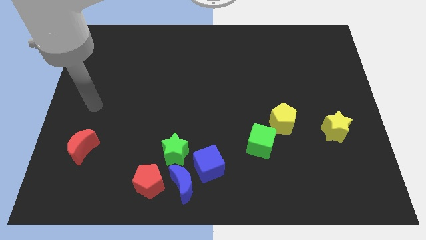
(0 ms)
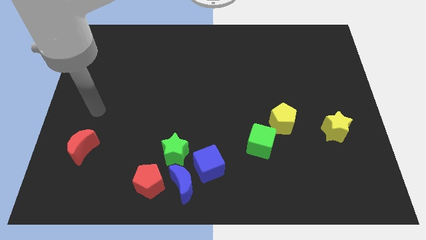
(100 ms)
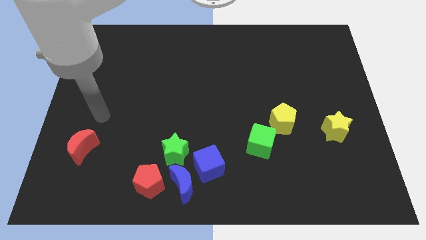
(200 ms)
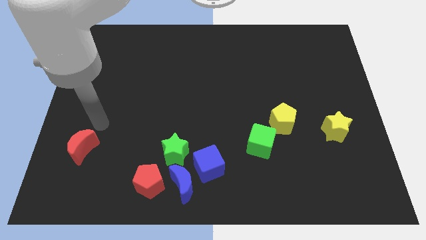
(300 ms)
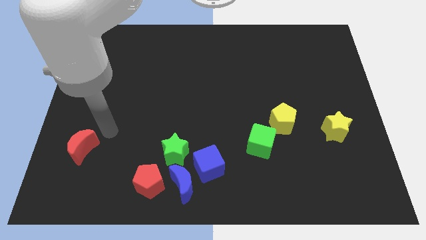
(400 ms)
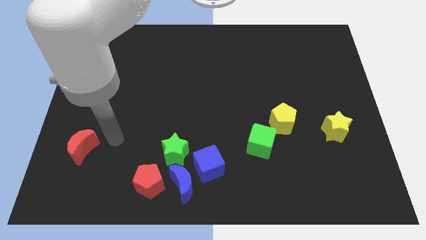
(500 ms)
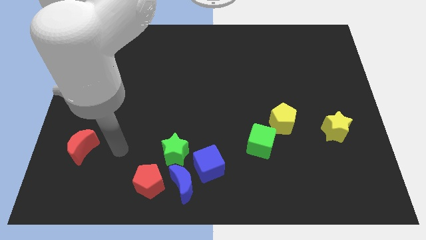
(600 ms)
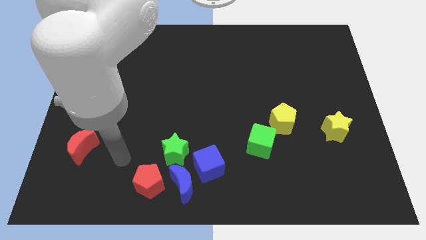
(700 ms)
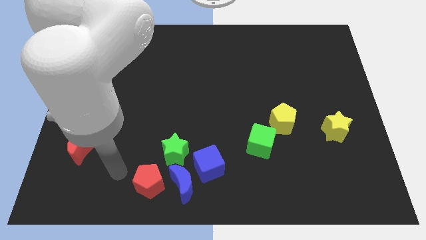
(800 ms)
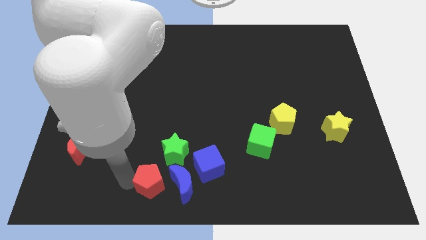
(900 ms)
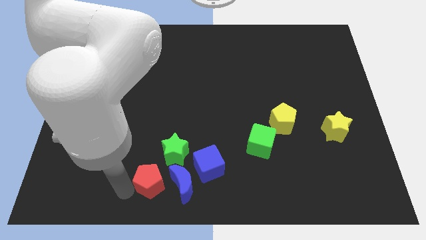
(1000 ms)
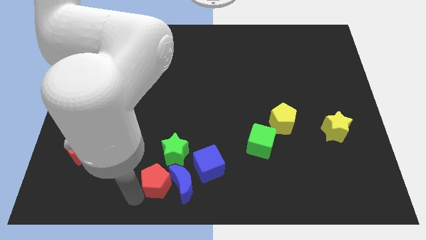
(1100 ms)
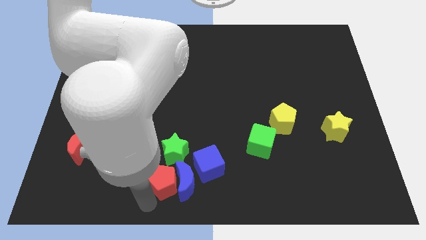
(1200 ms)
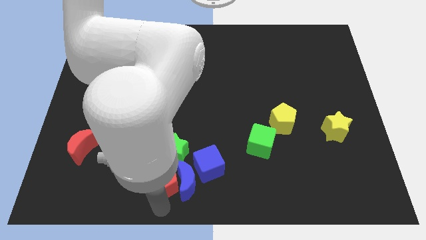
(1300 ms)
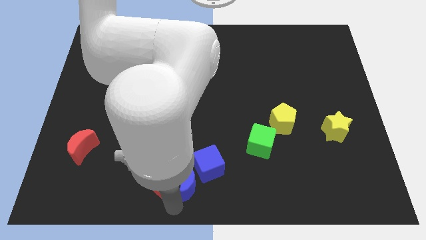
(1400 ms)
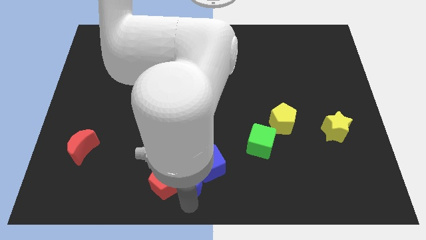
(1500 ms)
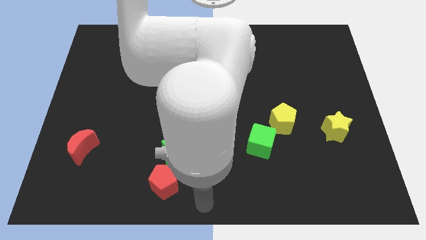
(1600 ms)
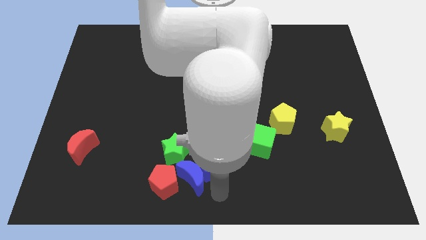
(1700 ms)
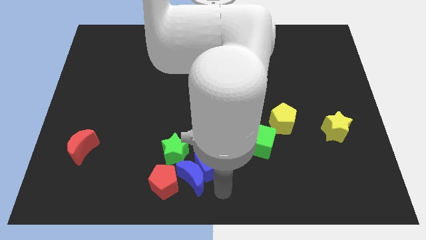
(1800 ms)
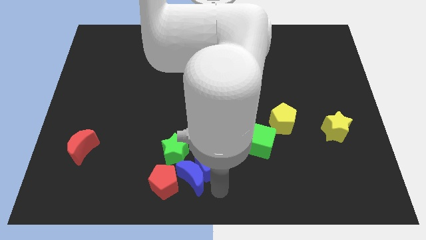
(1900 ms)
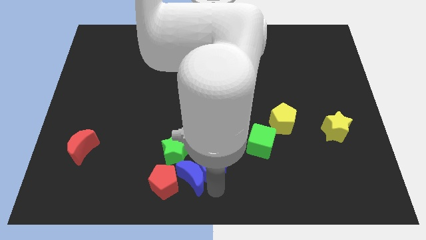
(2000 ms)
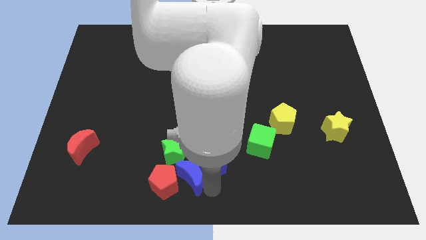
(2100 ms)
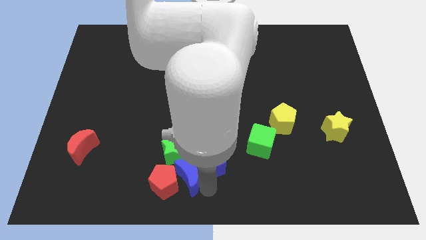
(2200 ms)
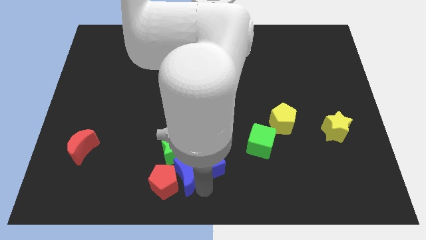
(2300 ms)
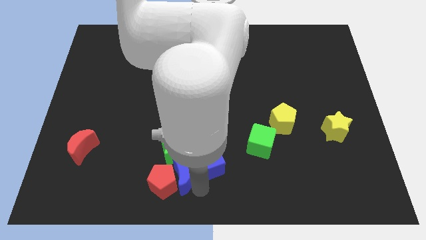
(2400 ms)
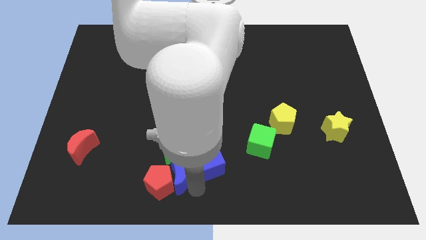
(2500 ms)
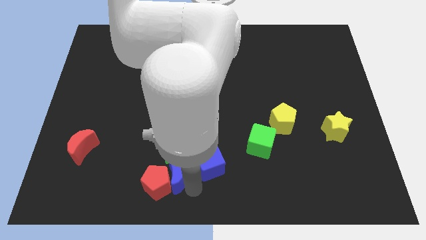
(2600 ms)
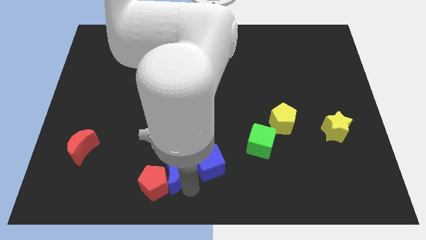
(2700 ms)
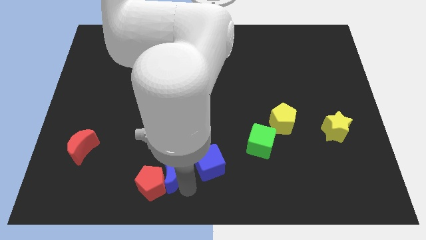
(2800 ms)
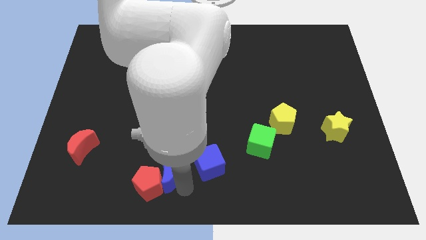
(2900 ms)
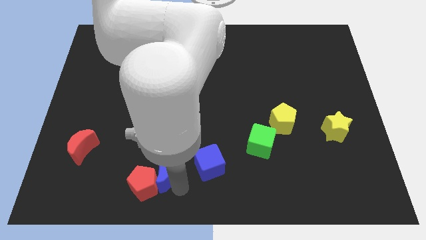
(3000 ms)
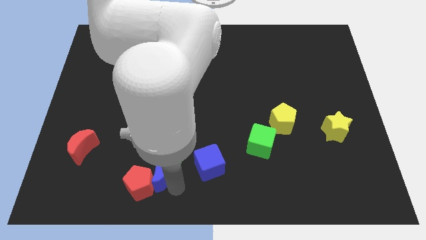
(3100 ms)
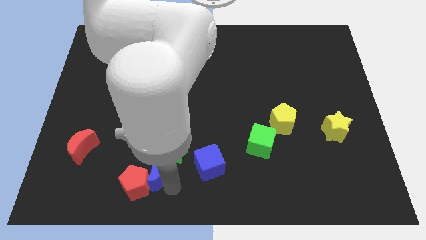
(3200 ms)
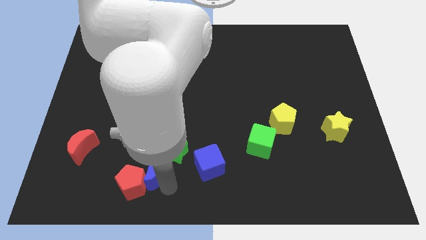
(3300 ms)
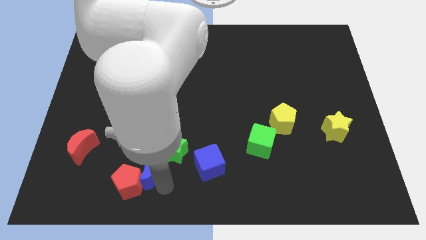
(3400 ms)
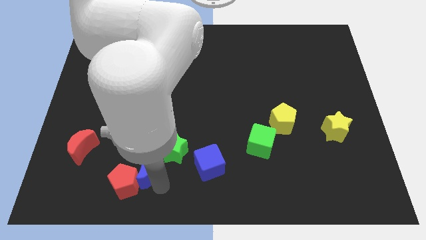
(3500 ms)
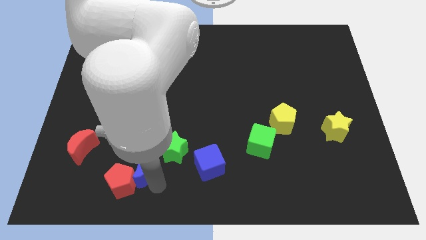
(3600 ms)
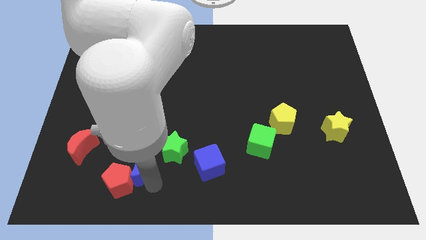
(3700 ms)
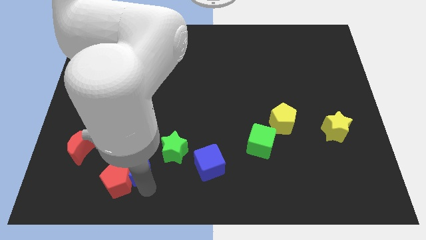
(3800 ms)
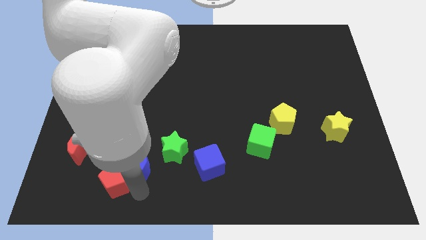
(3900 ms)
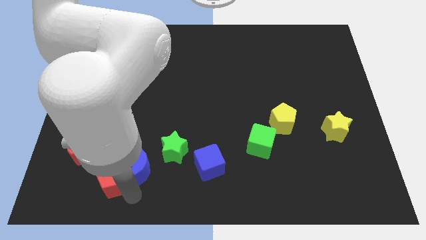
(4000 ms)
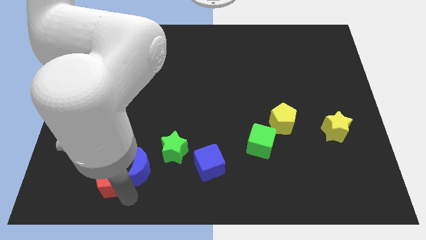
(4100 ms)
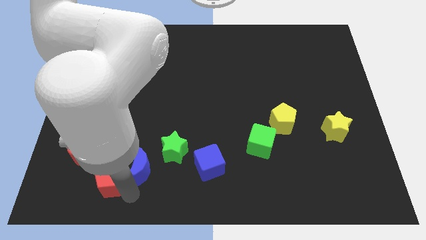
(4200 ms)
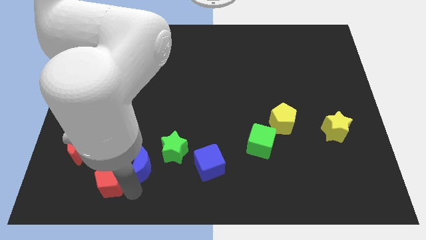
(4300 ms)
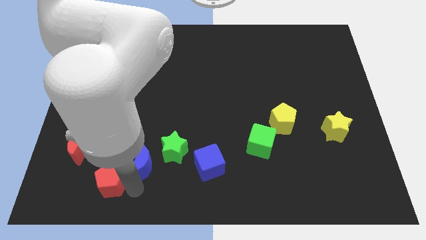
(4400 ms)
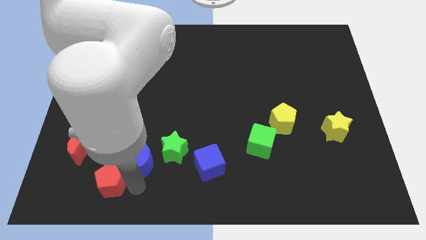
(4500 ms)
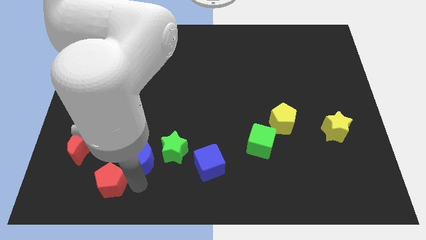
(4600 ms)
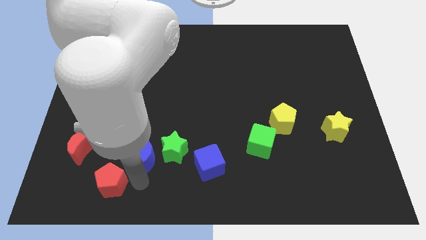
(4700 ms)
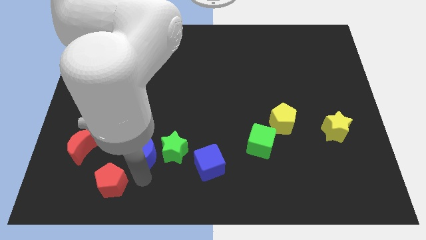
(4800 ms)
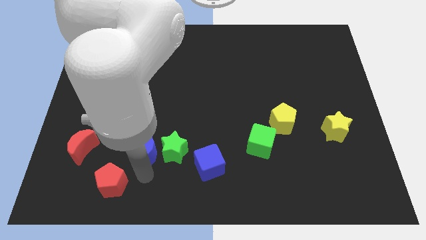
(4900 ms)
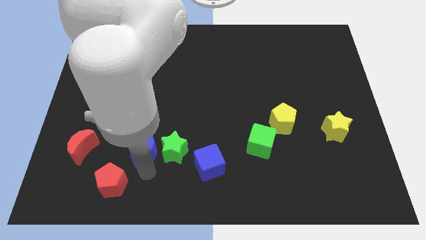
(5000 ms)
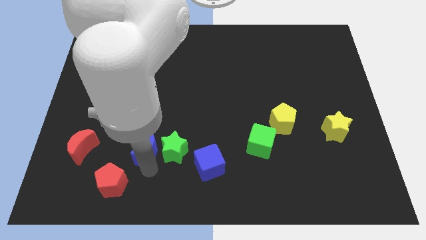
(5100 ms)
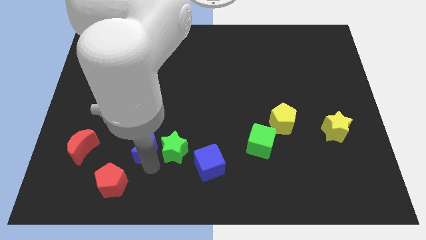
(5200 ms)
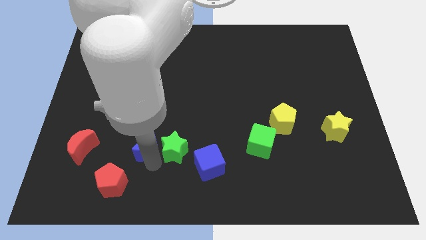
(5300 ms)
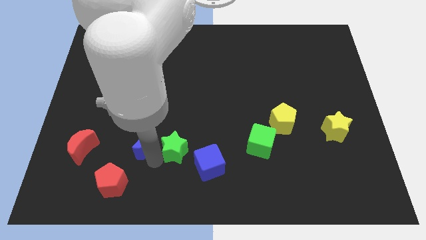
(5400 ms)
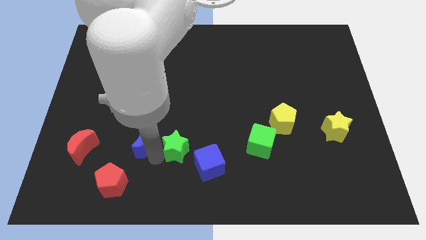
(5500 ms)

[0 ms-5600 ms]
push the blue moon a bit upwards

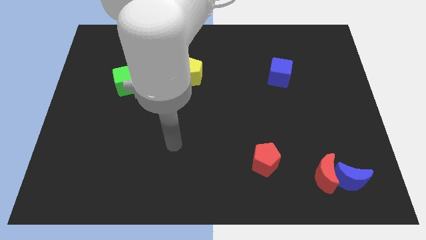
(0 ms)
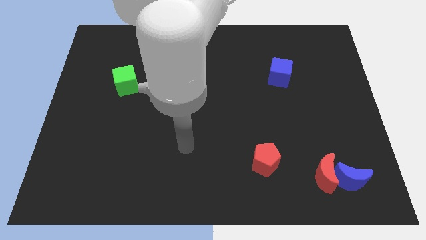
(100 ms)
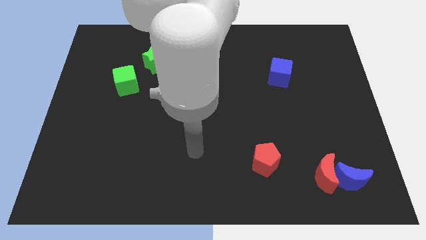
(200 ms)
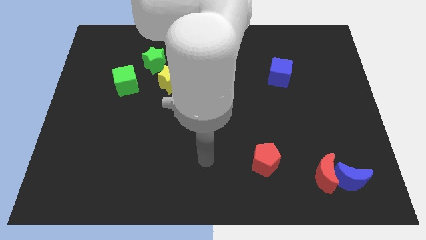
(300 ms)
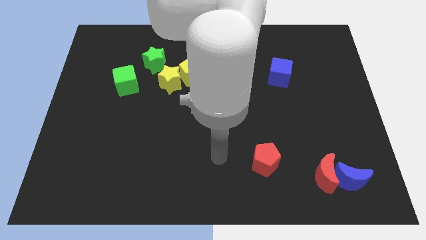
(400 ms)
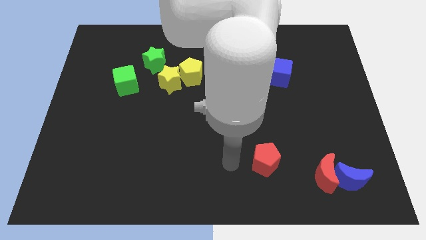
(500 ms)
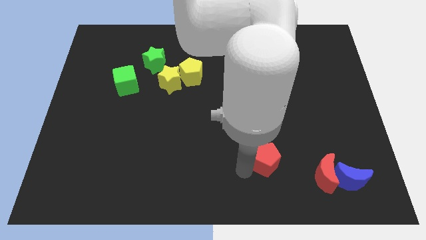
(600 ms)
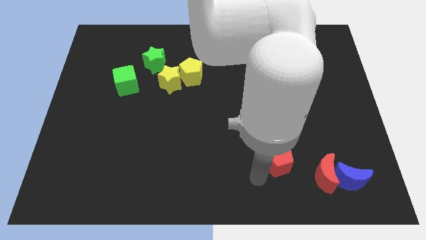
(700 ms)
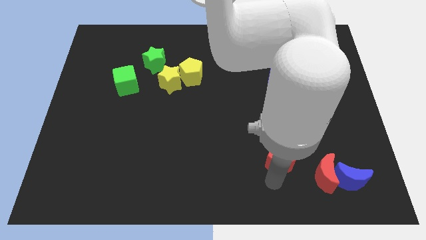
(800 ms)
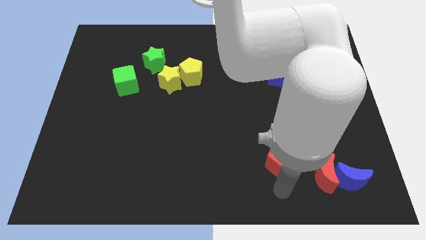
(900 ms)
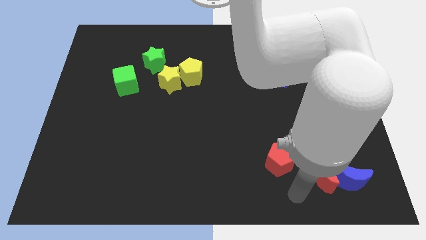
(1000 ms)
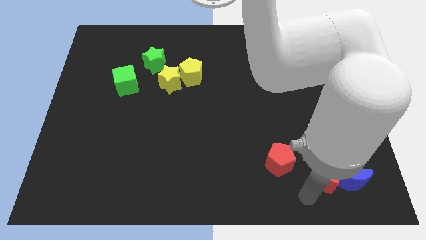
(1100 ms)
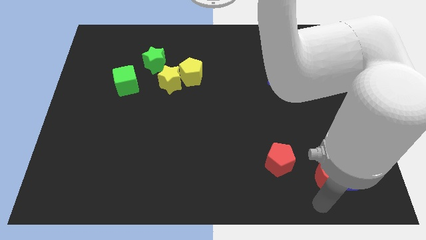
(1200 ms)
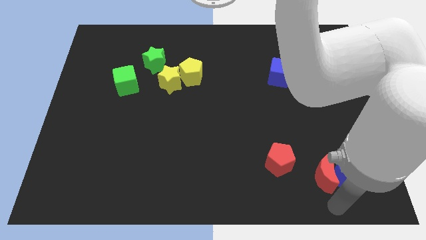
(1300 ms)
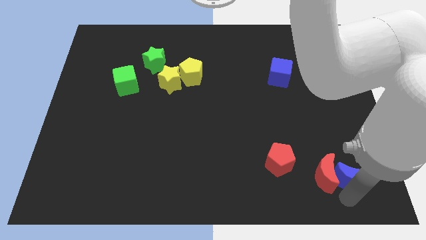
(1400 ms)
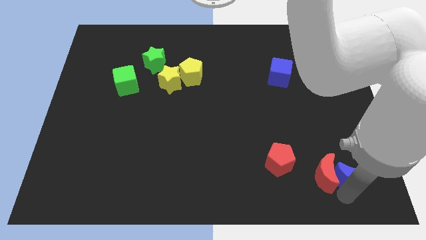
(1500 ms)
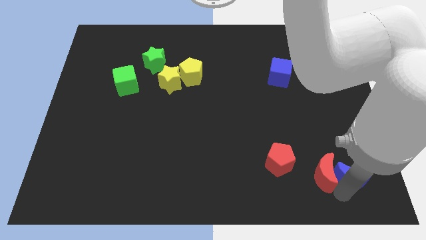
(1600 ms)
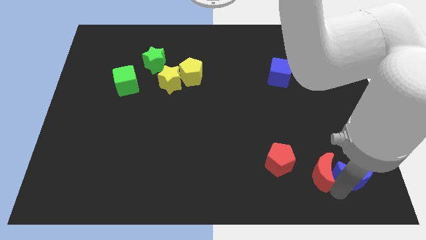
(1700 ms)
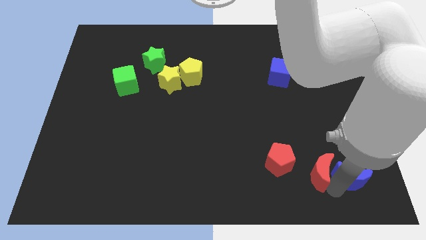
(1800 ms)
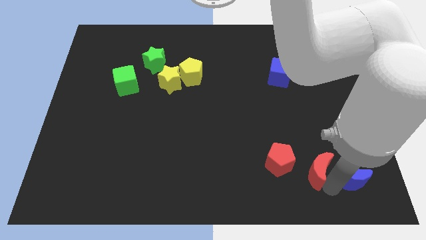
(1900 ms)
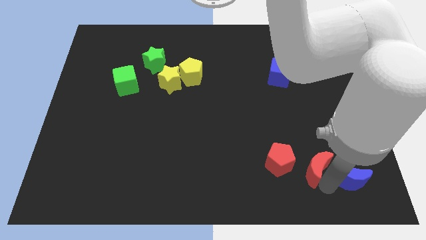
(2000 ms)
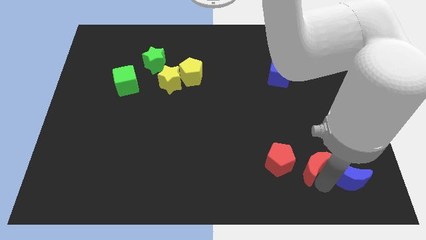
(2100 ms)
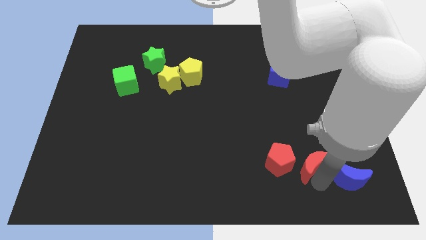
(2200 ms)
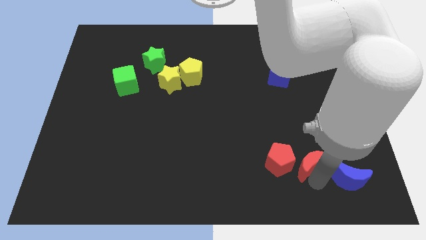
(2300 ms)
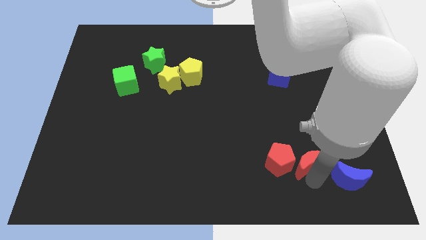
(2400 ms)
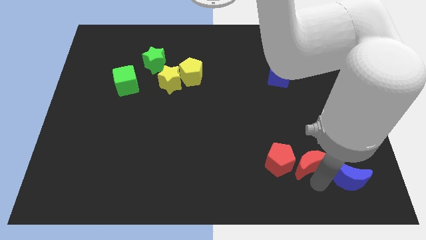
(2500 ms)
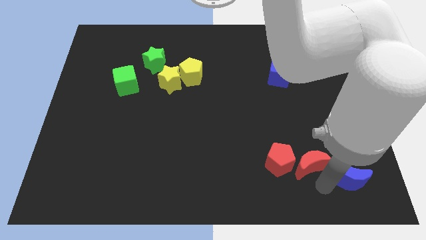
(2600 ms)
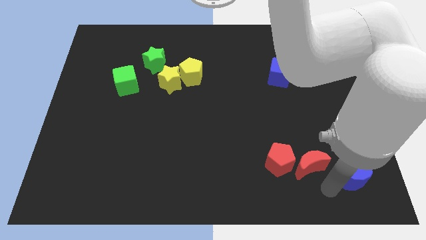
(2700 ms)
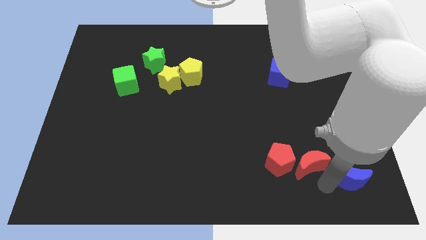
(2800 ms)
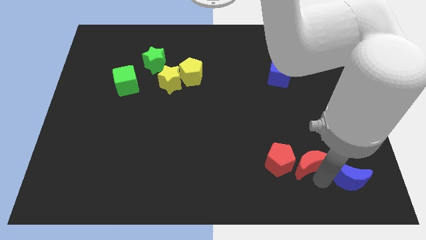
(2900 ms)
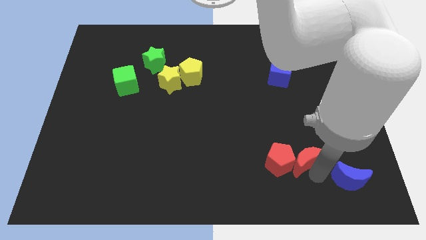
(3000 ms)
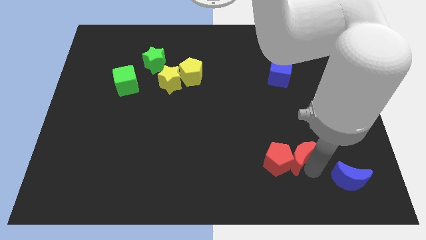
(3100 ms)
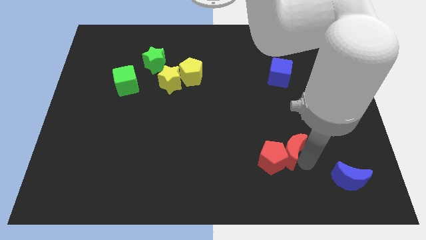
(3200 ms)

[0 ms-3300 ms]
move the red moon upwards and then to the left slightly
